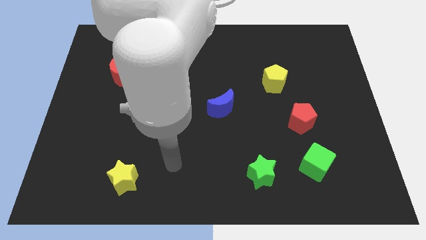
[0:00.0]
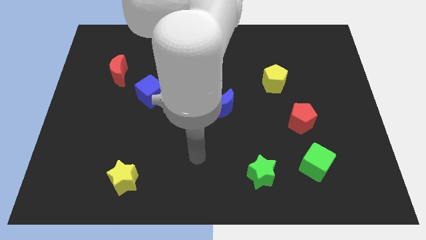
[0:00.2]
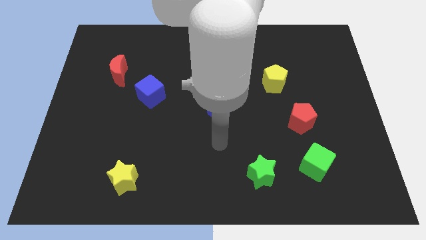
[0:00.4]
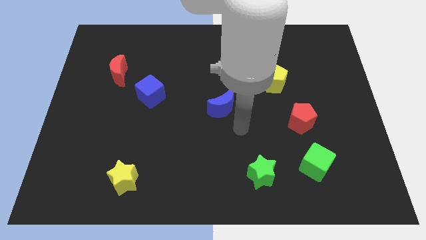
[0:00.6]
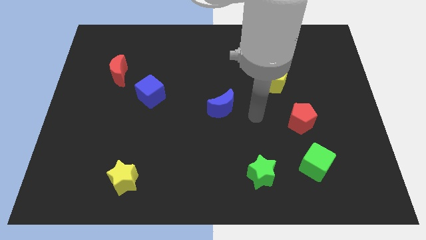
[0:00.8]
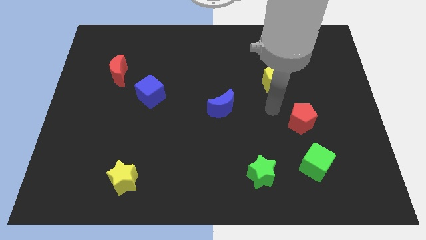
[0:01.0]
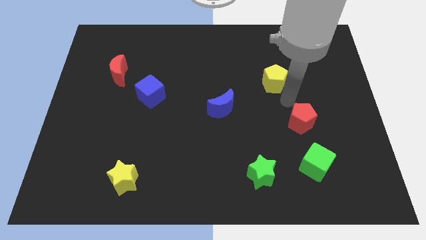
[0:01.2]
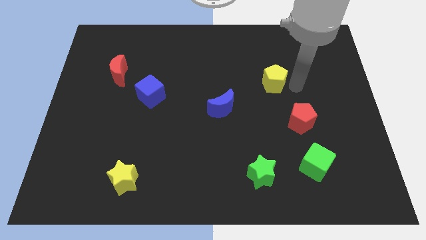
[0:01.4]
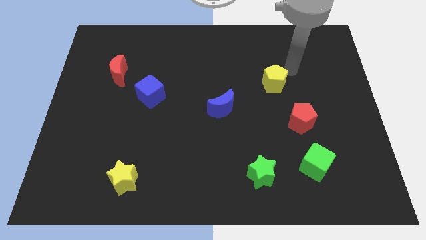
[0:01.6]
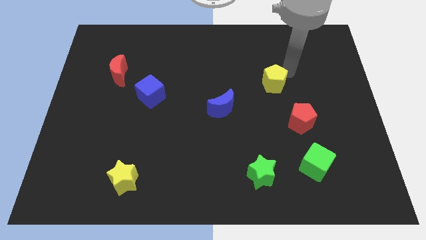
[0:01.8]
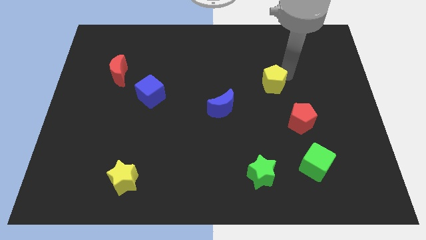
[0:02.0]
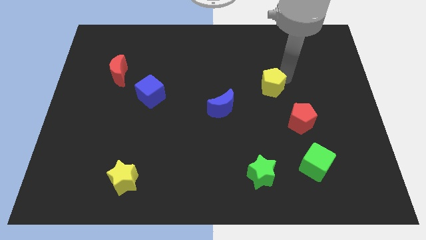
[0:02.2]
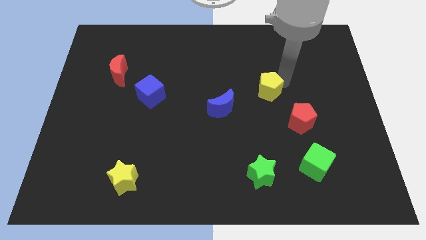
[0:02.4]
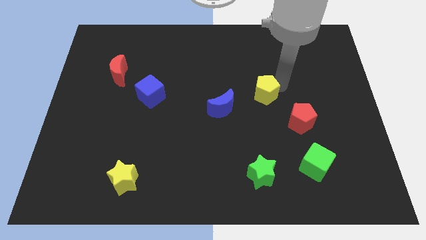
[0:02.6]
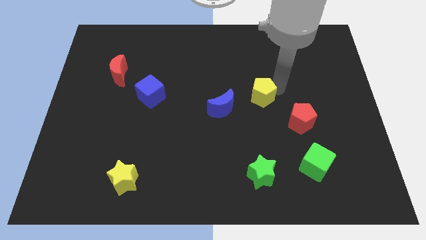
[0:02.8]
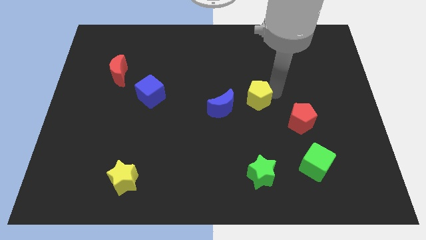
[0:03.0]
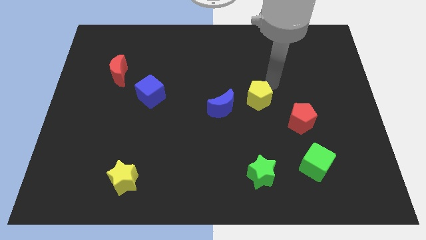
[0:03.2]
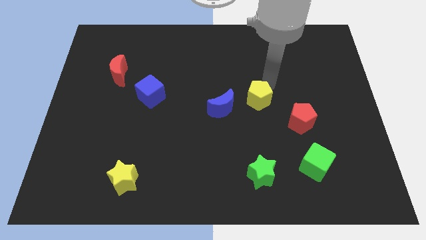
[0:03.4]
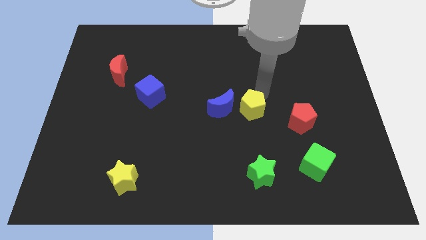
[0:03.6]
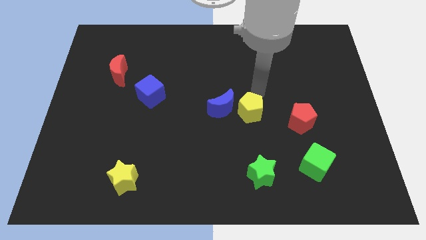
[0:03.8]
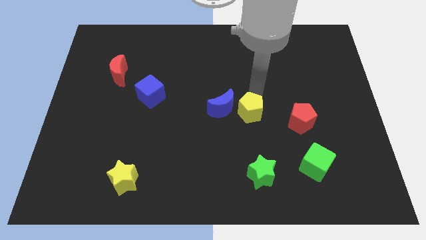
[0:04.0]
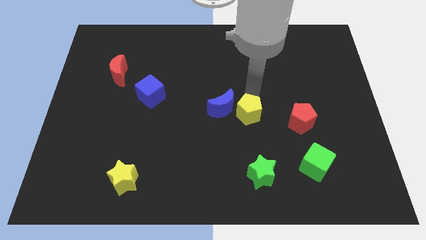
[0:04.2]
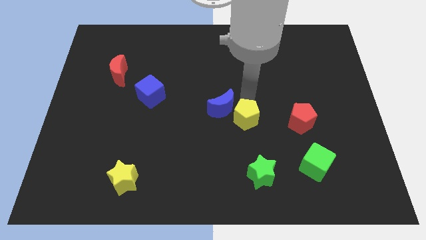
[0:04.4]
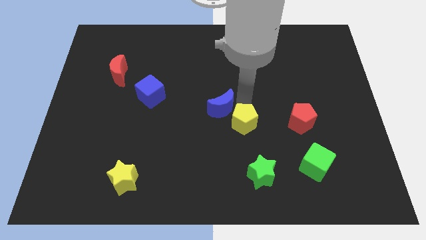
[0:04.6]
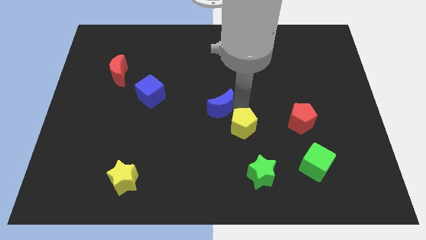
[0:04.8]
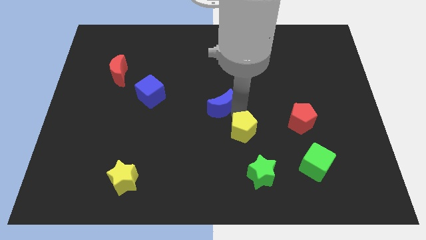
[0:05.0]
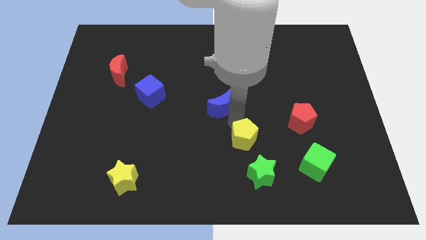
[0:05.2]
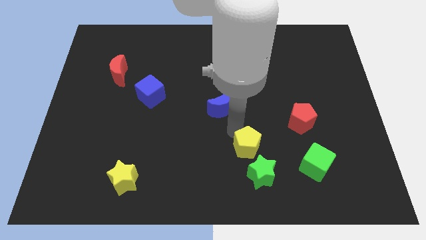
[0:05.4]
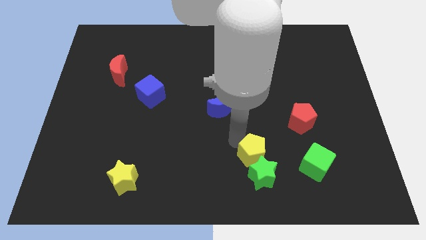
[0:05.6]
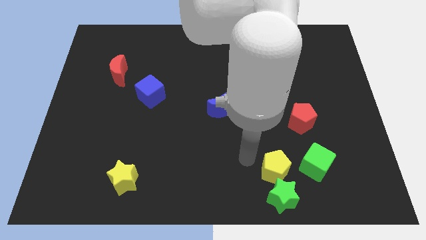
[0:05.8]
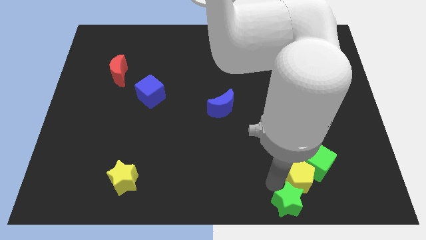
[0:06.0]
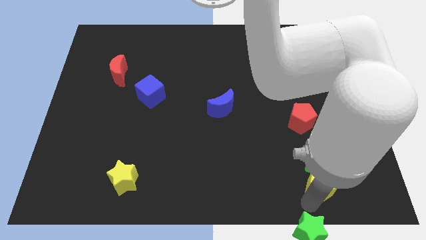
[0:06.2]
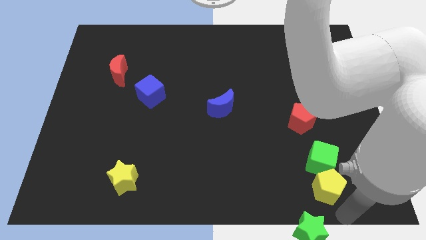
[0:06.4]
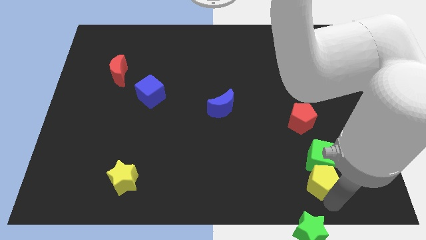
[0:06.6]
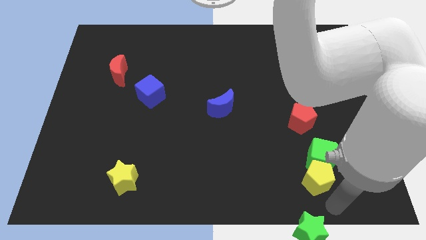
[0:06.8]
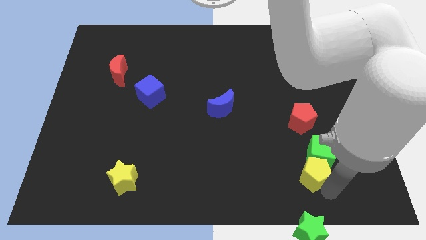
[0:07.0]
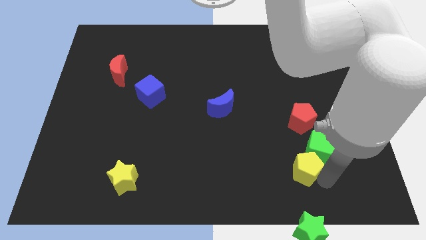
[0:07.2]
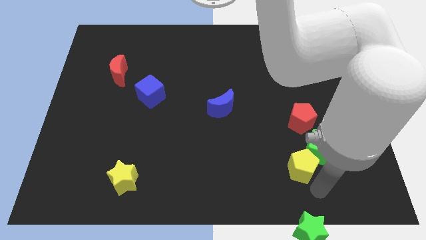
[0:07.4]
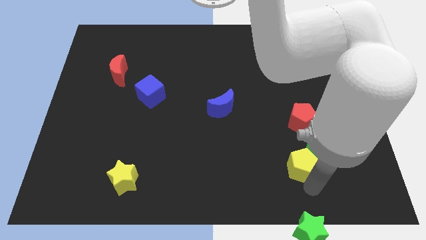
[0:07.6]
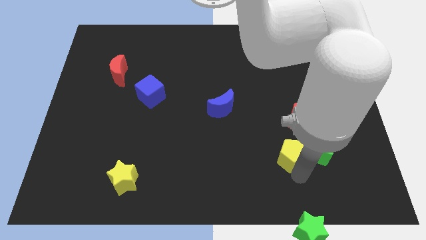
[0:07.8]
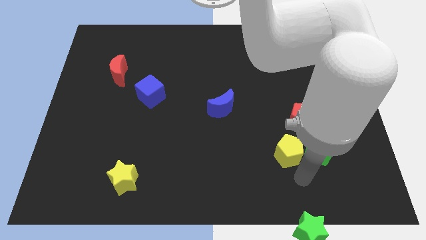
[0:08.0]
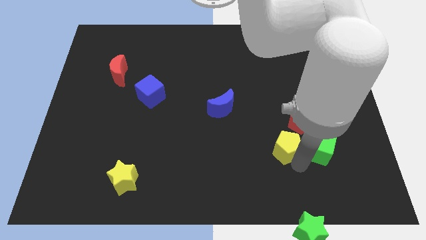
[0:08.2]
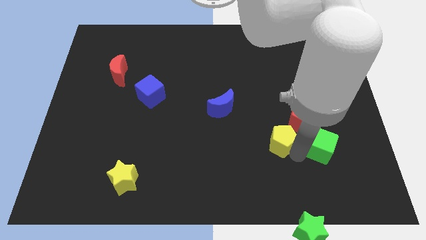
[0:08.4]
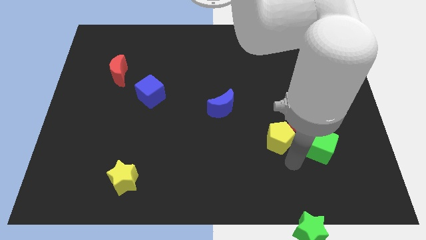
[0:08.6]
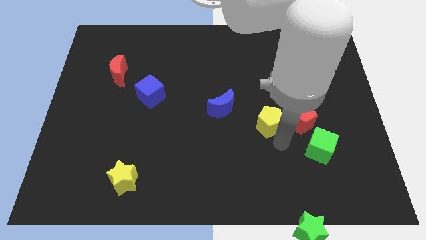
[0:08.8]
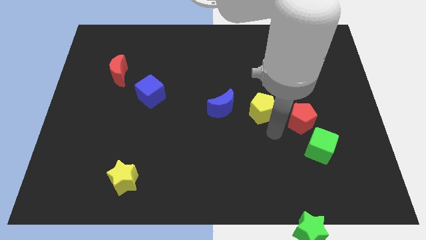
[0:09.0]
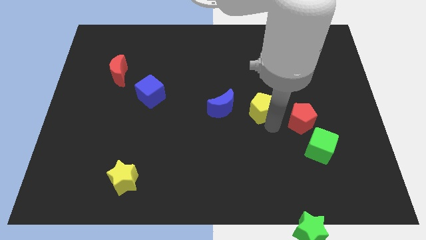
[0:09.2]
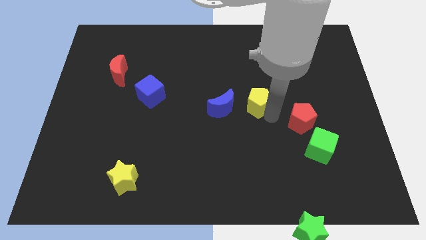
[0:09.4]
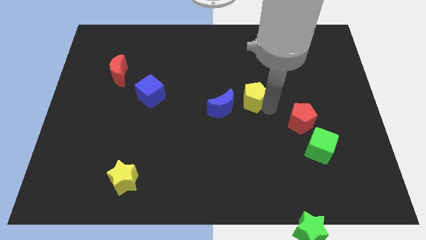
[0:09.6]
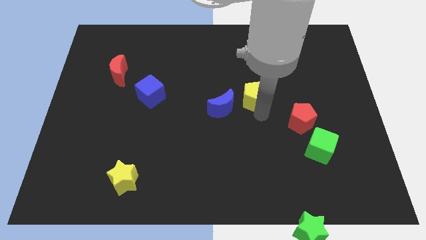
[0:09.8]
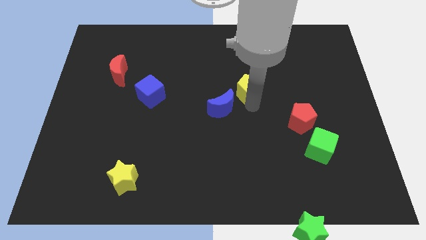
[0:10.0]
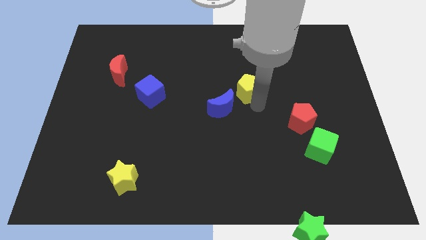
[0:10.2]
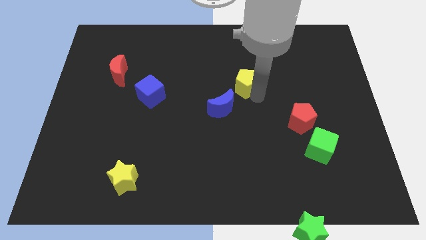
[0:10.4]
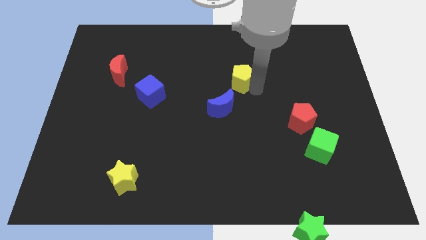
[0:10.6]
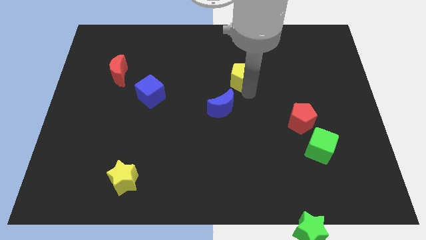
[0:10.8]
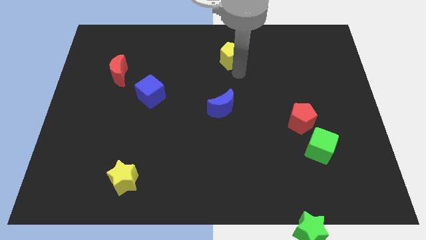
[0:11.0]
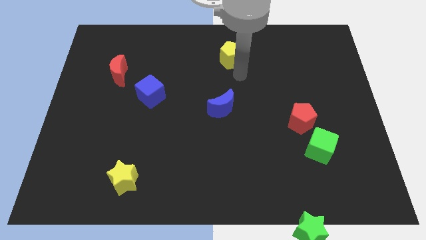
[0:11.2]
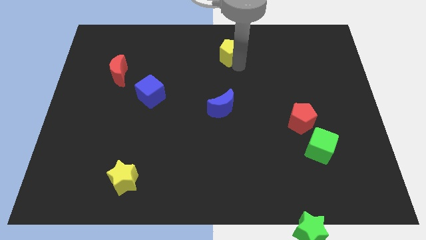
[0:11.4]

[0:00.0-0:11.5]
put the yellow pentagon to the top side
